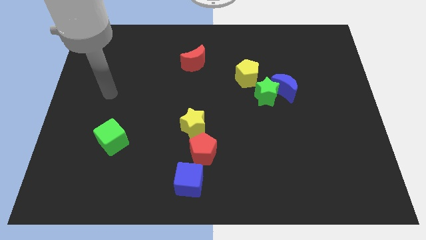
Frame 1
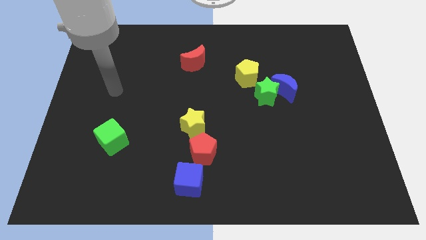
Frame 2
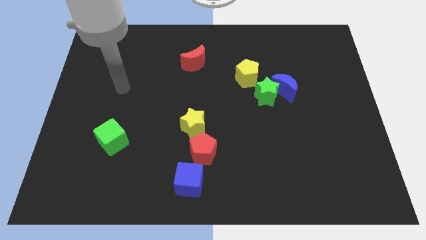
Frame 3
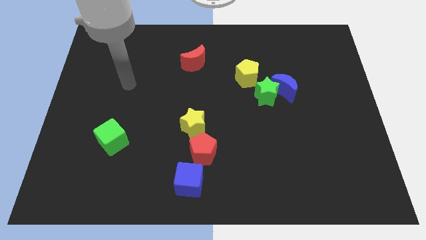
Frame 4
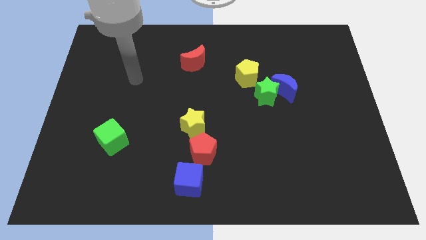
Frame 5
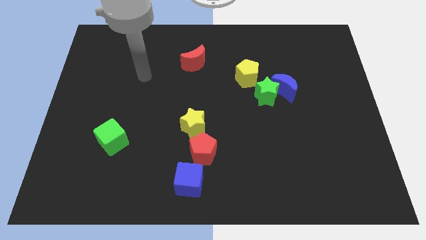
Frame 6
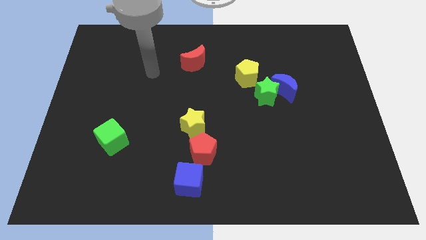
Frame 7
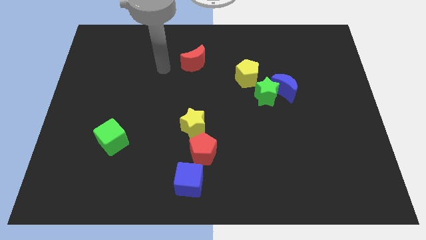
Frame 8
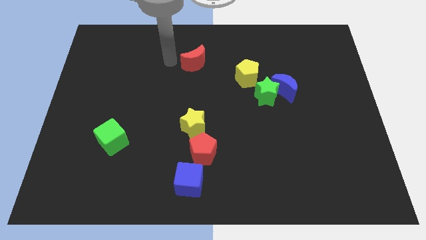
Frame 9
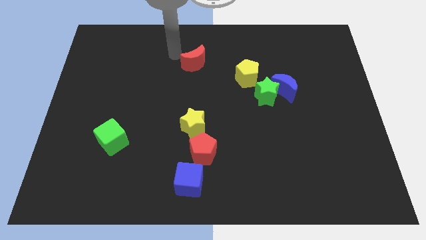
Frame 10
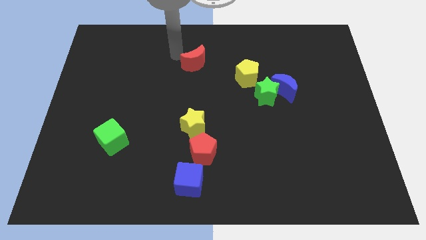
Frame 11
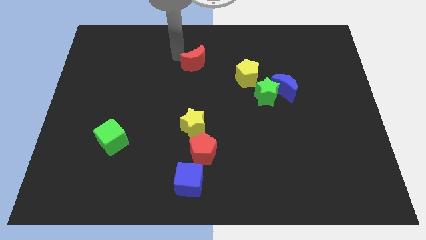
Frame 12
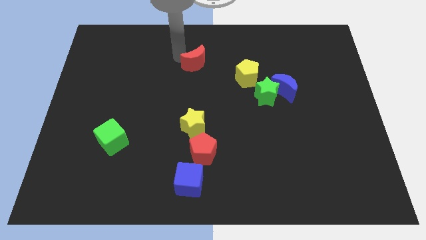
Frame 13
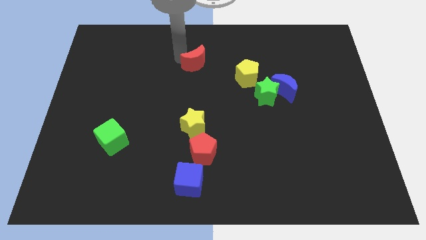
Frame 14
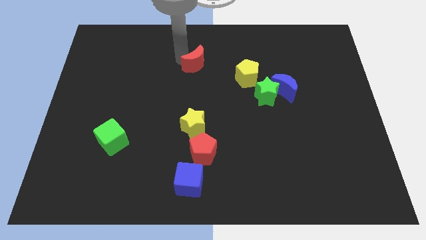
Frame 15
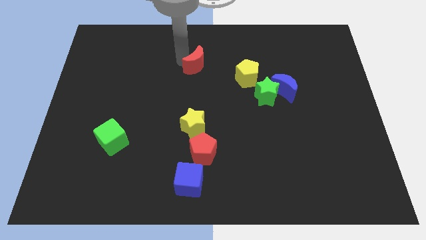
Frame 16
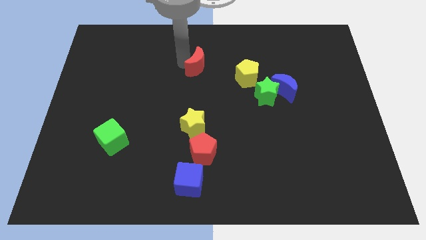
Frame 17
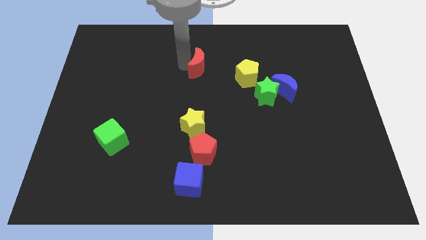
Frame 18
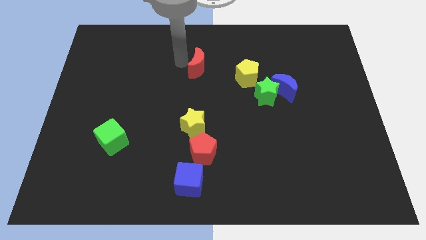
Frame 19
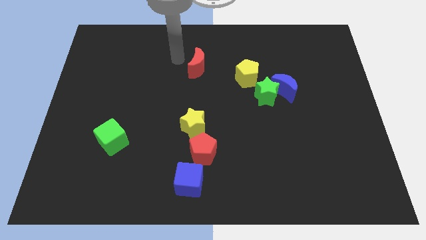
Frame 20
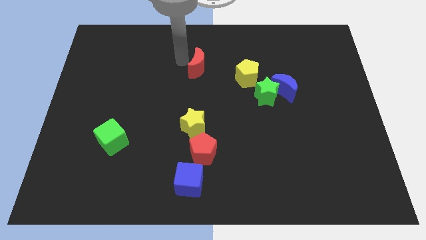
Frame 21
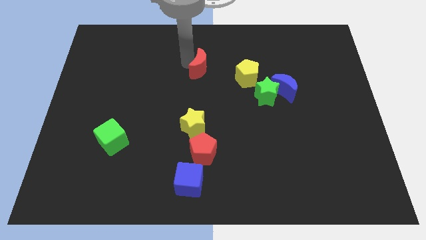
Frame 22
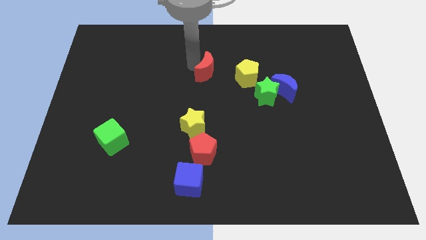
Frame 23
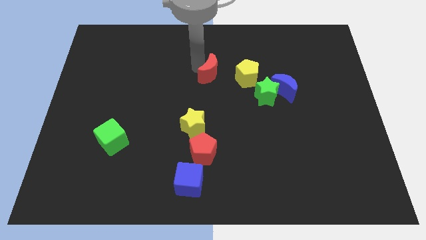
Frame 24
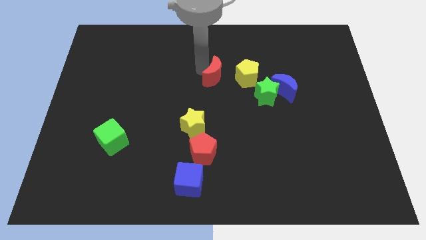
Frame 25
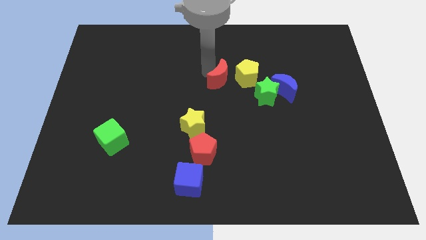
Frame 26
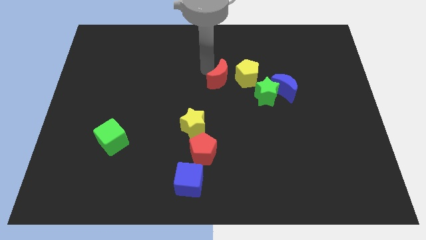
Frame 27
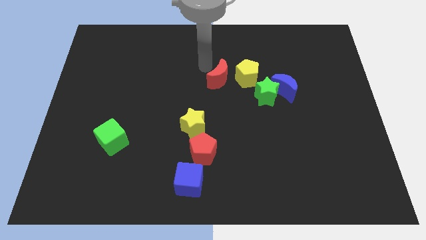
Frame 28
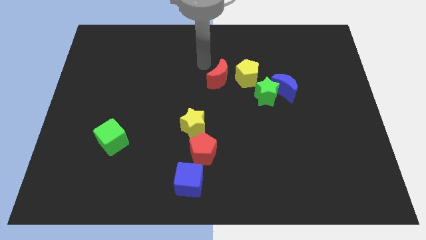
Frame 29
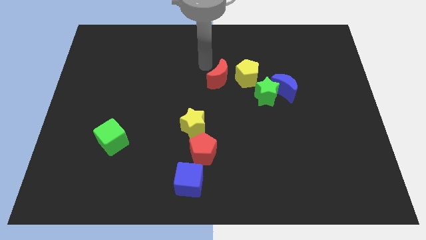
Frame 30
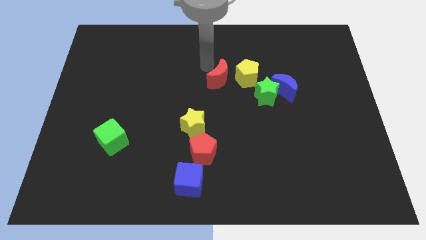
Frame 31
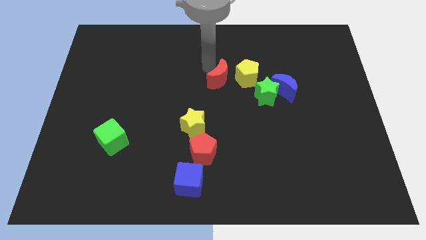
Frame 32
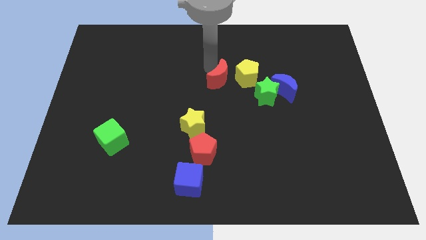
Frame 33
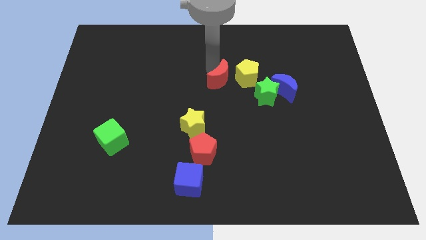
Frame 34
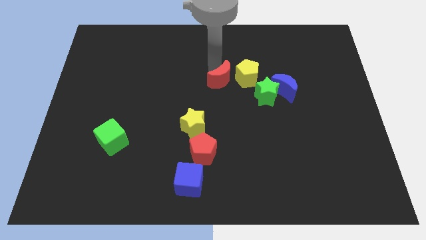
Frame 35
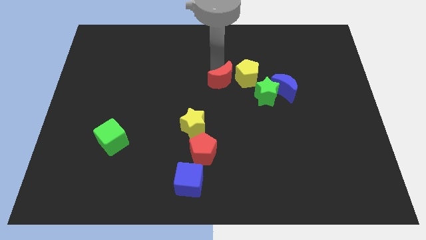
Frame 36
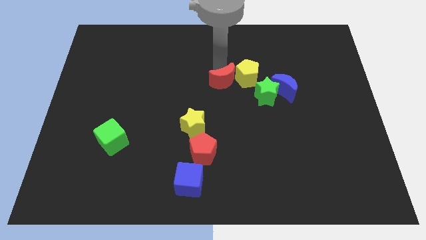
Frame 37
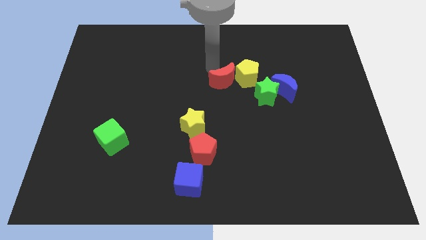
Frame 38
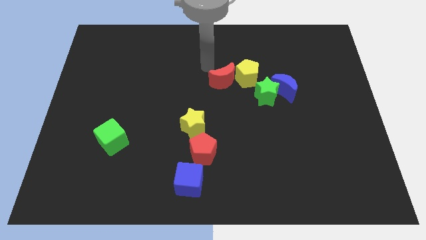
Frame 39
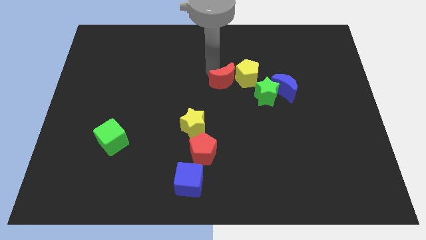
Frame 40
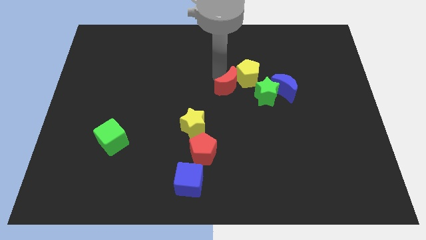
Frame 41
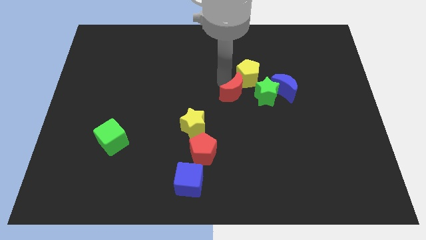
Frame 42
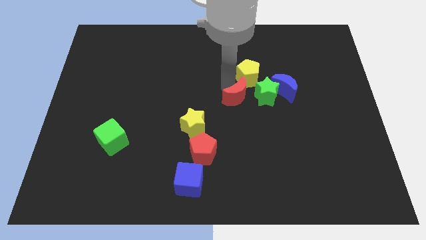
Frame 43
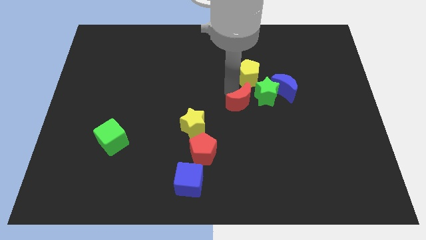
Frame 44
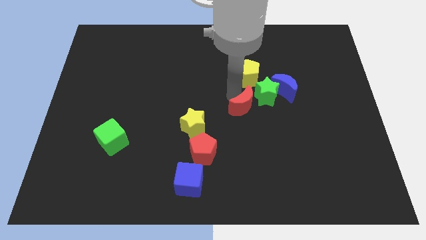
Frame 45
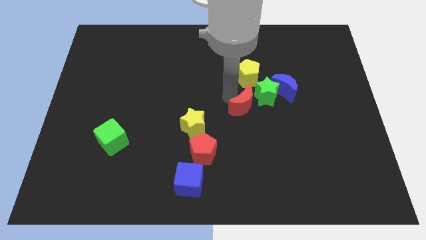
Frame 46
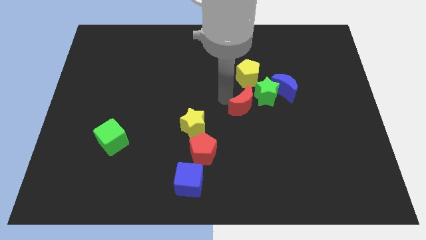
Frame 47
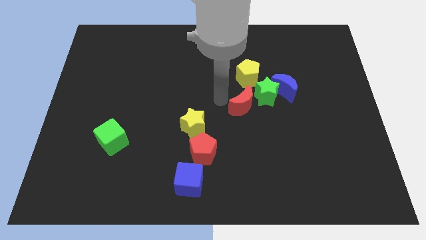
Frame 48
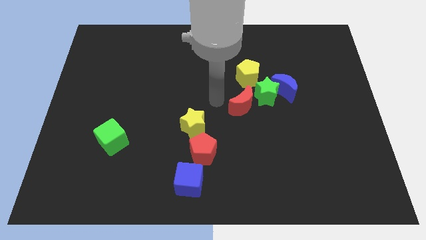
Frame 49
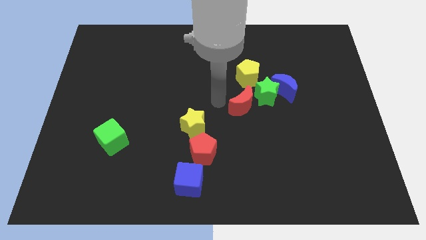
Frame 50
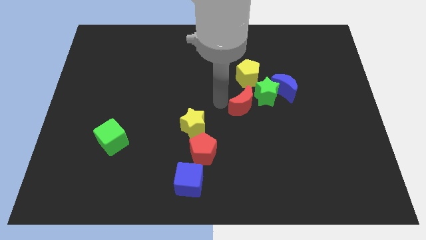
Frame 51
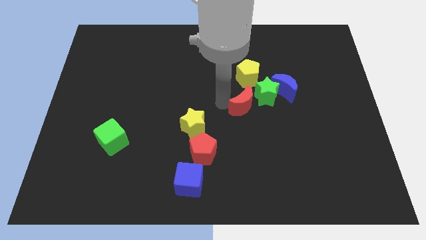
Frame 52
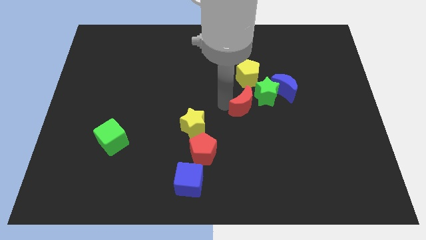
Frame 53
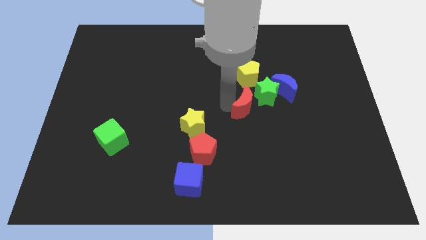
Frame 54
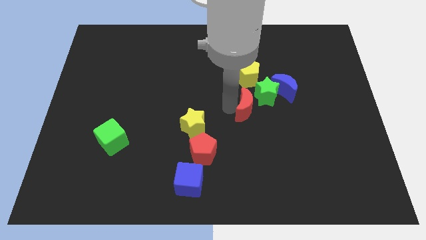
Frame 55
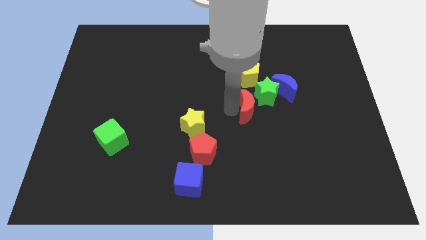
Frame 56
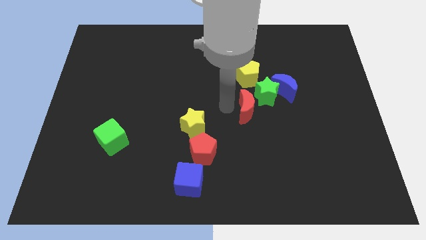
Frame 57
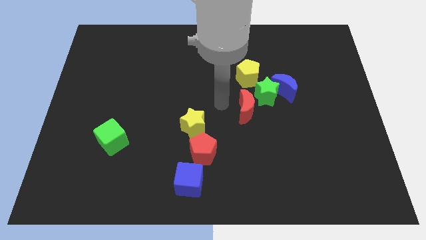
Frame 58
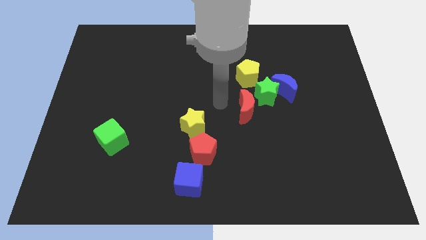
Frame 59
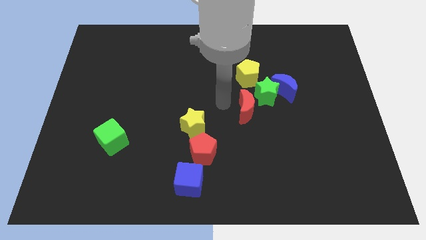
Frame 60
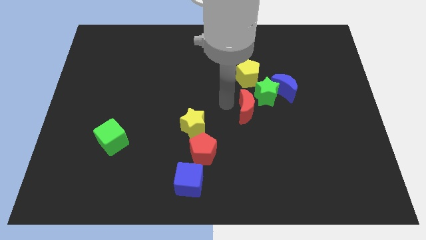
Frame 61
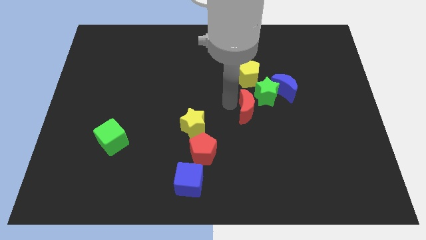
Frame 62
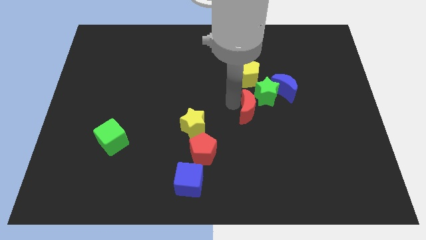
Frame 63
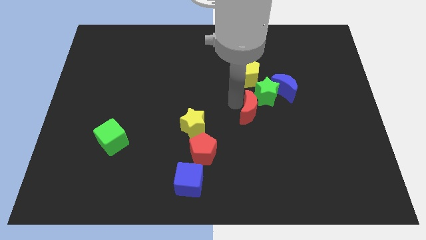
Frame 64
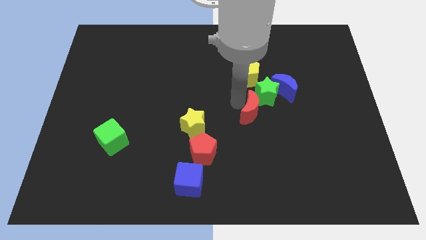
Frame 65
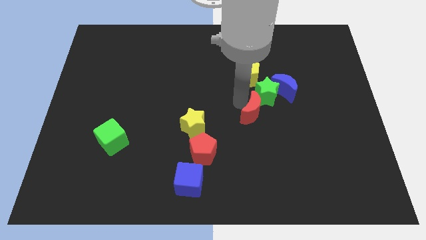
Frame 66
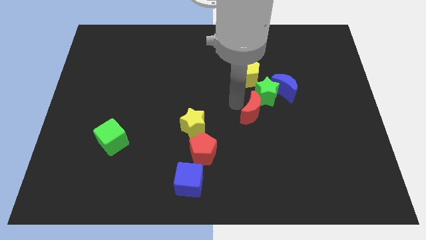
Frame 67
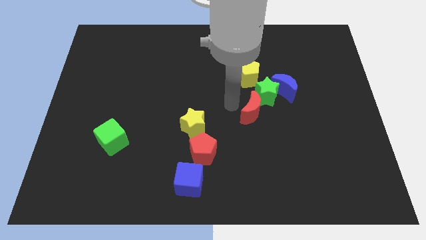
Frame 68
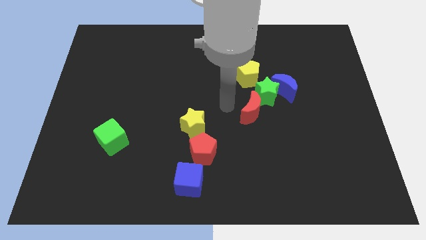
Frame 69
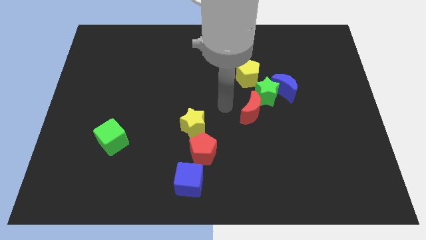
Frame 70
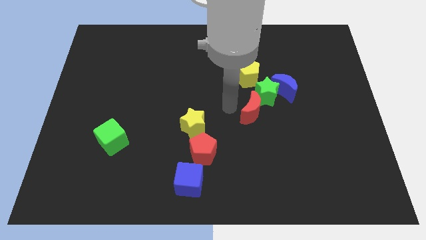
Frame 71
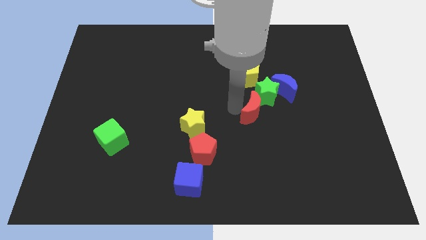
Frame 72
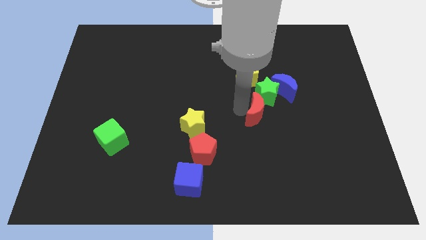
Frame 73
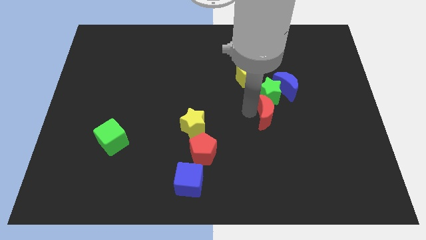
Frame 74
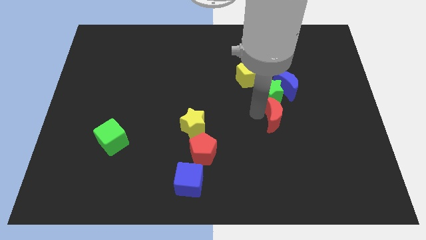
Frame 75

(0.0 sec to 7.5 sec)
push the red moon to the bottom of the blue moon

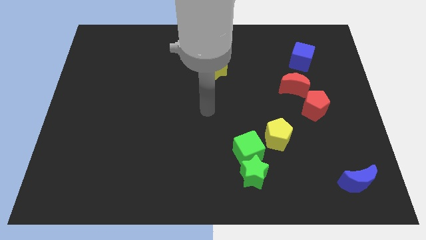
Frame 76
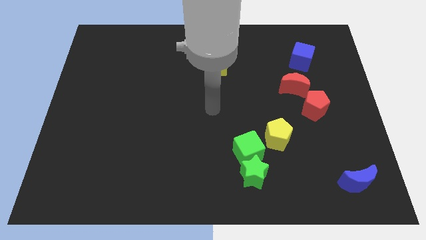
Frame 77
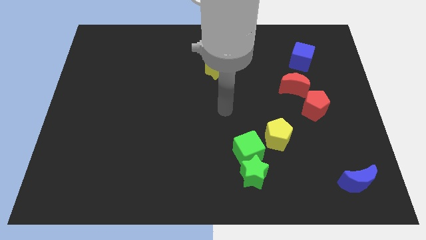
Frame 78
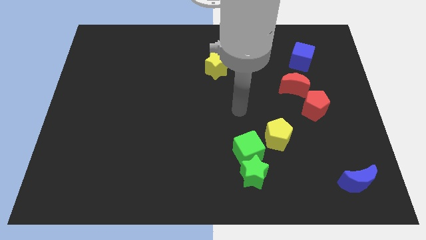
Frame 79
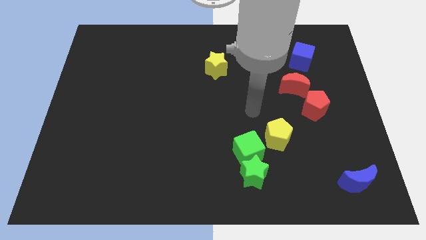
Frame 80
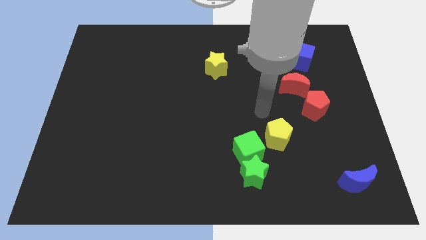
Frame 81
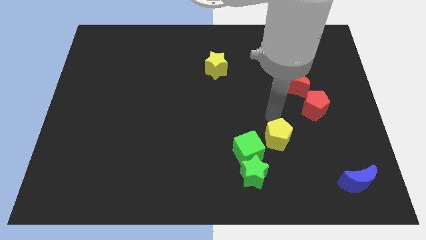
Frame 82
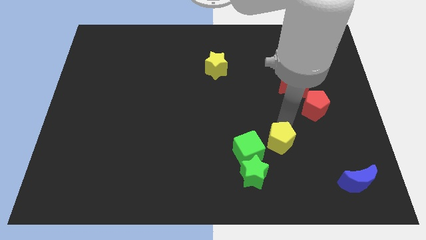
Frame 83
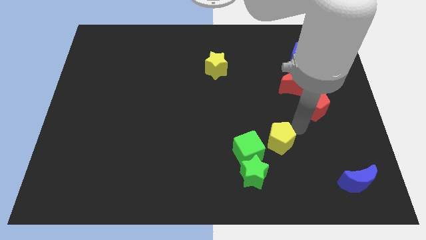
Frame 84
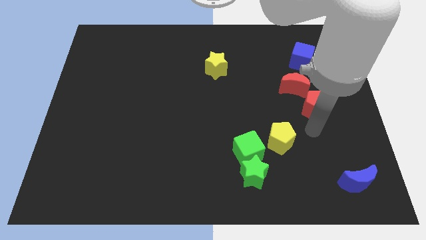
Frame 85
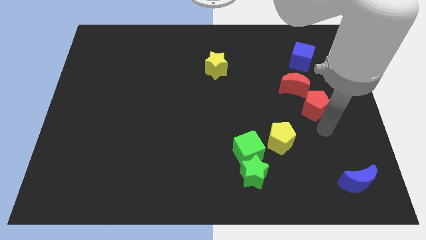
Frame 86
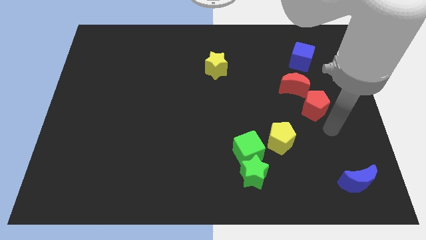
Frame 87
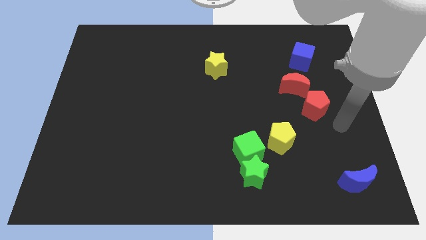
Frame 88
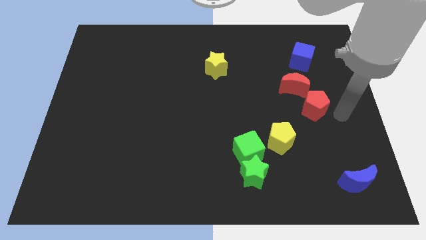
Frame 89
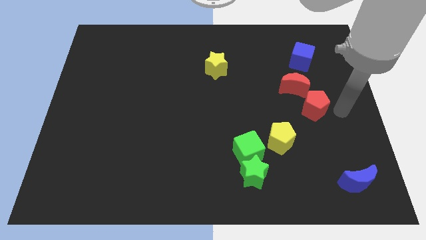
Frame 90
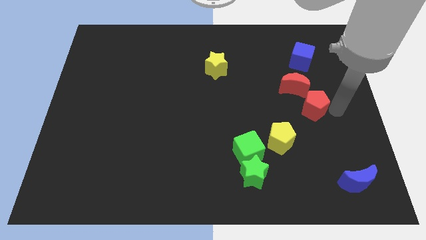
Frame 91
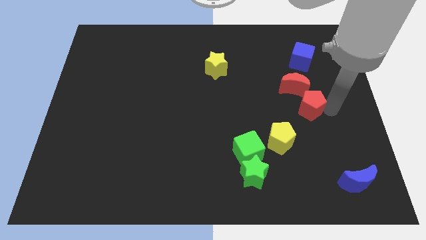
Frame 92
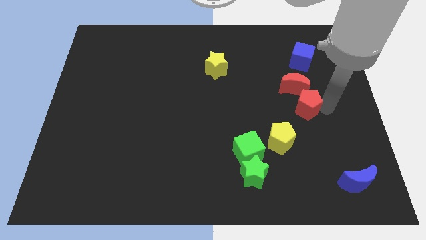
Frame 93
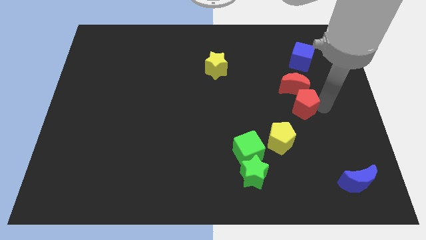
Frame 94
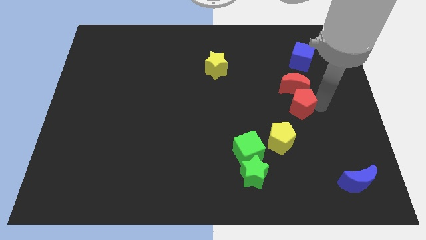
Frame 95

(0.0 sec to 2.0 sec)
put the red pentagon diagonally down and to the left of the red moon
